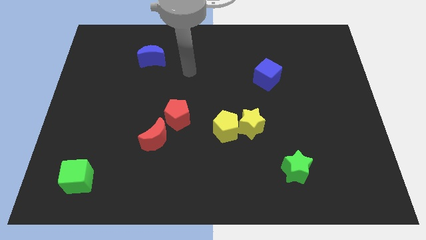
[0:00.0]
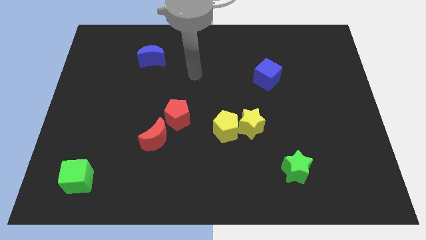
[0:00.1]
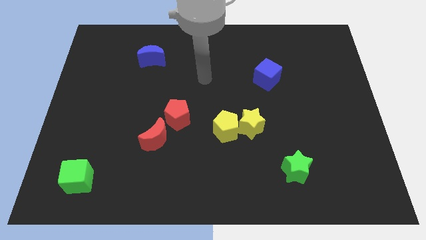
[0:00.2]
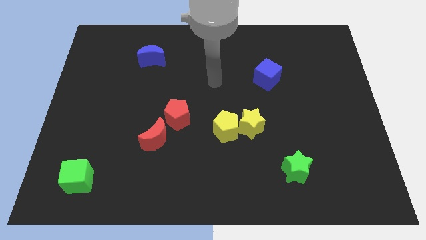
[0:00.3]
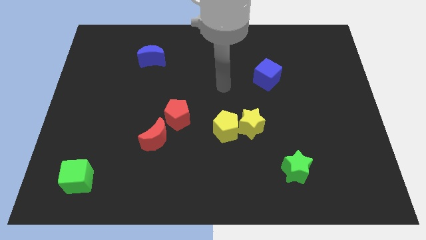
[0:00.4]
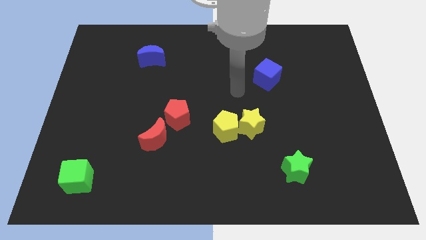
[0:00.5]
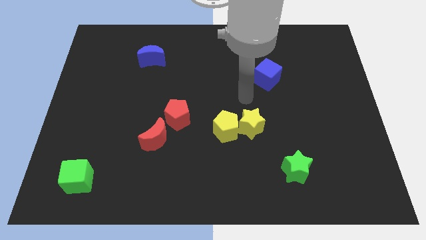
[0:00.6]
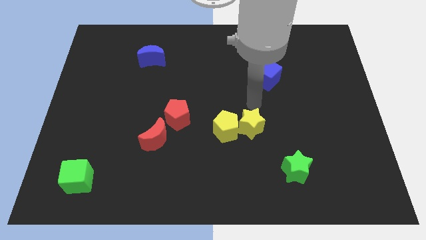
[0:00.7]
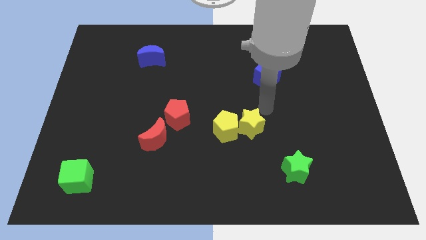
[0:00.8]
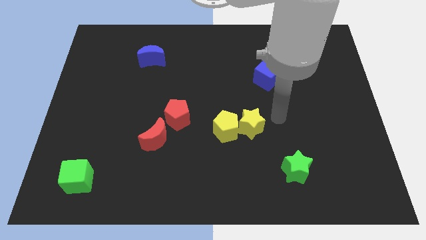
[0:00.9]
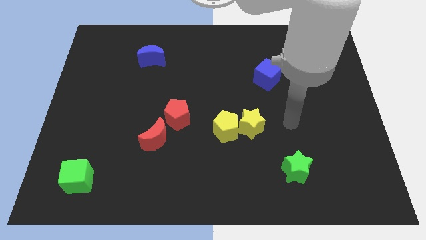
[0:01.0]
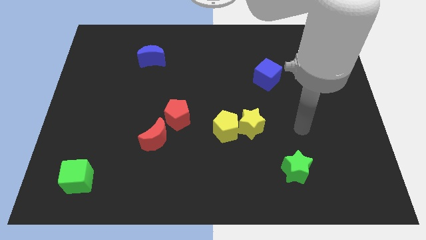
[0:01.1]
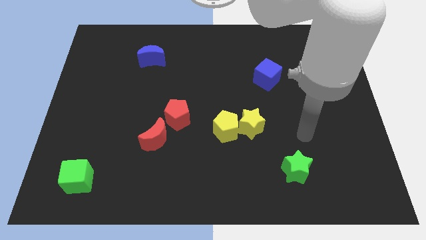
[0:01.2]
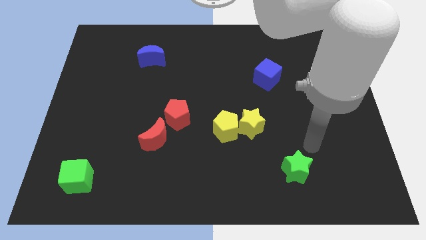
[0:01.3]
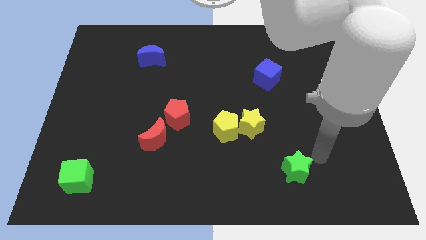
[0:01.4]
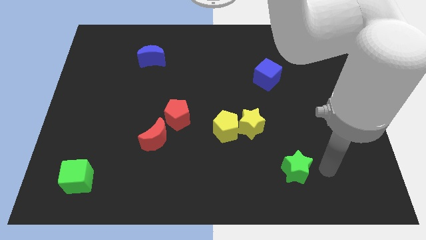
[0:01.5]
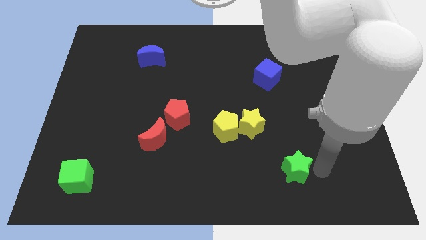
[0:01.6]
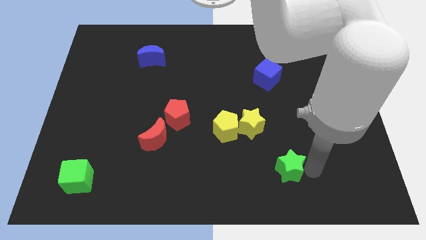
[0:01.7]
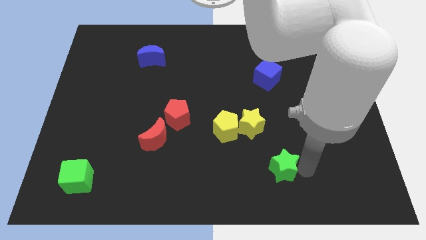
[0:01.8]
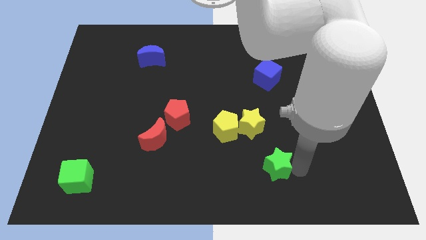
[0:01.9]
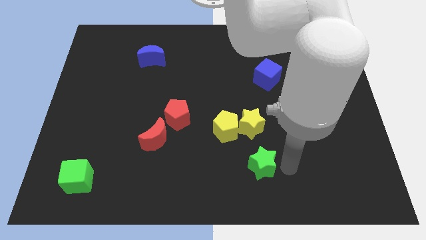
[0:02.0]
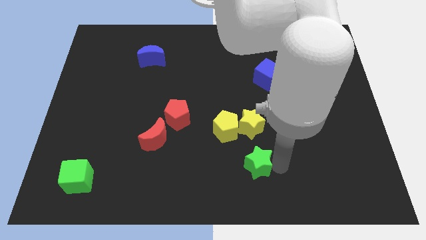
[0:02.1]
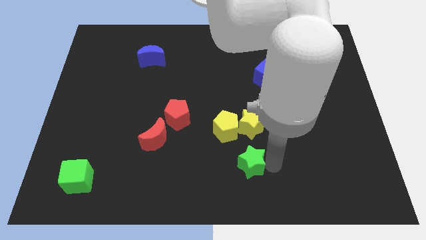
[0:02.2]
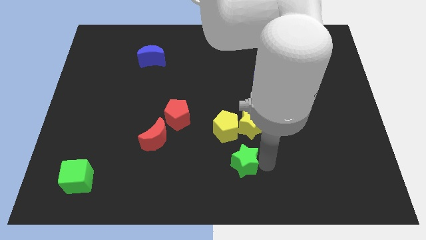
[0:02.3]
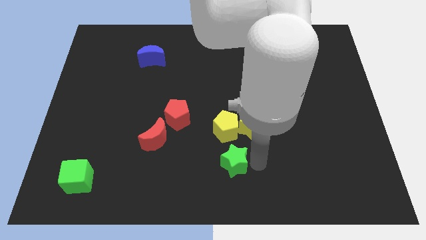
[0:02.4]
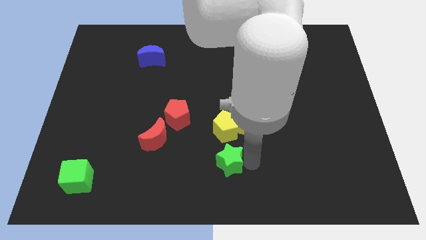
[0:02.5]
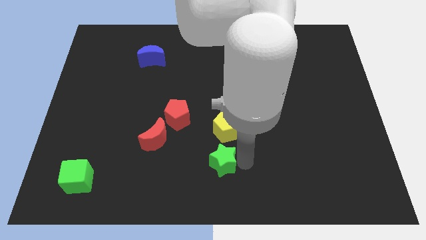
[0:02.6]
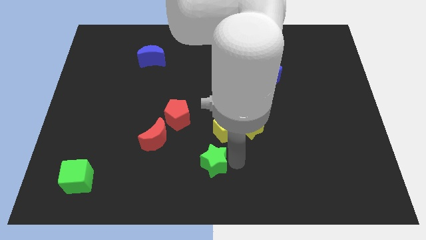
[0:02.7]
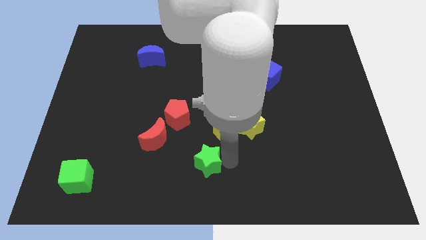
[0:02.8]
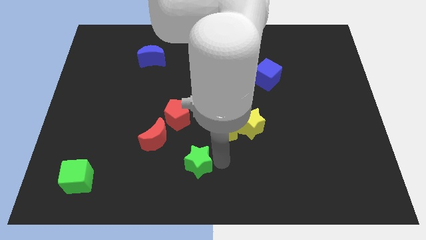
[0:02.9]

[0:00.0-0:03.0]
slide the green star left

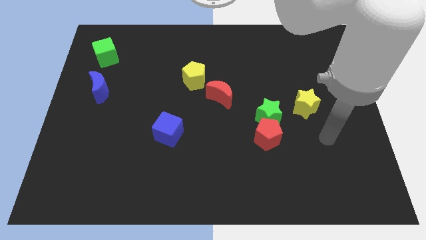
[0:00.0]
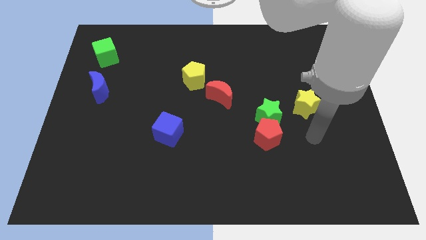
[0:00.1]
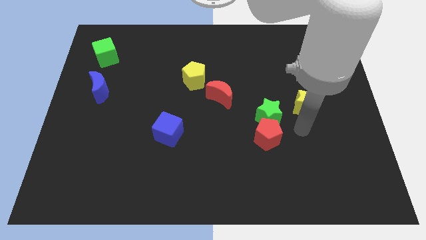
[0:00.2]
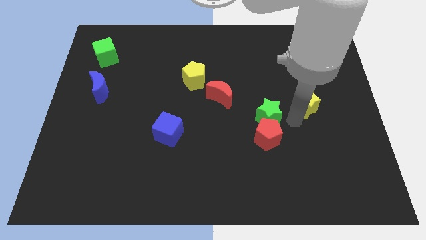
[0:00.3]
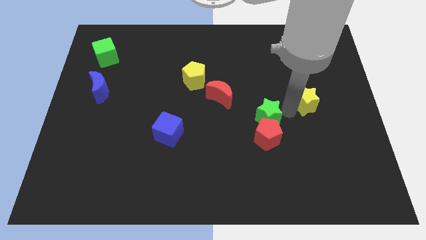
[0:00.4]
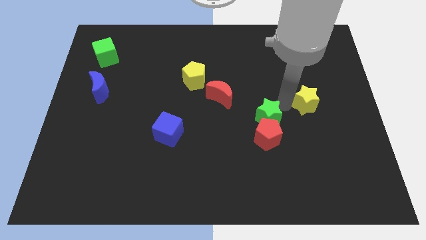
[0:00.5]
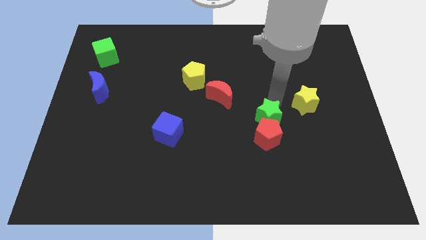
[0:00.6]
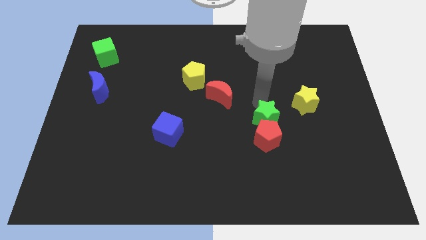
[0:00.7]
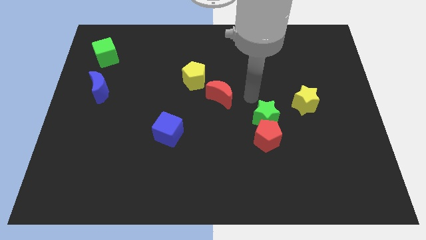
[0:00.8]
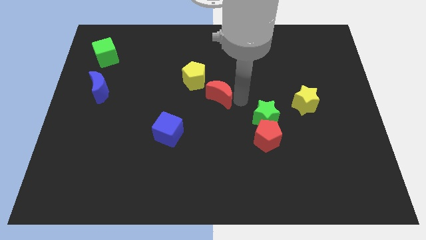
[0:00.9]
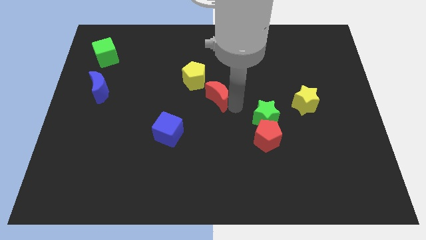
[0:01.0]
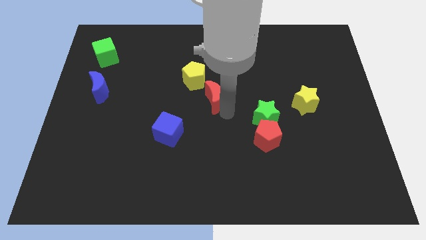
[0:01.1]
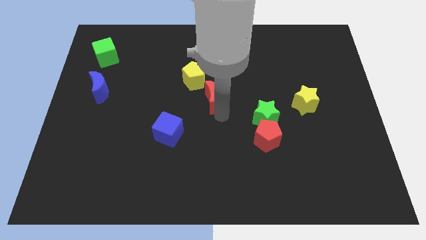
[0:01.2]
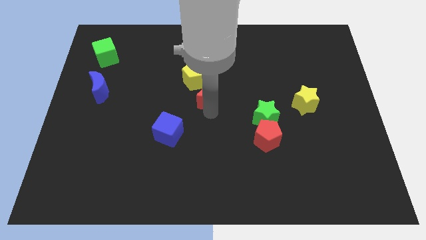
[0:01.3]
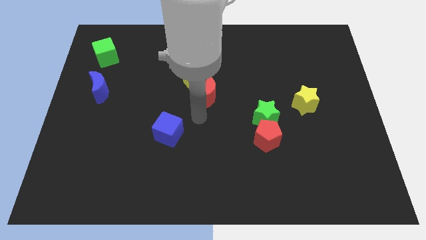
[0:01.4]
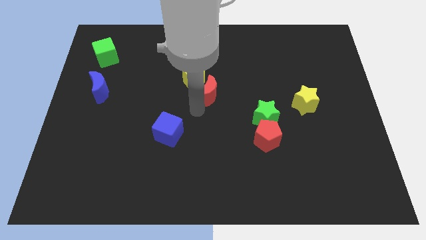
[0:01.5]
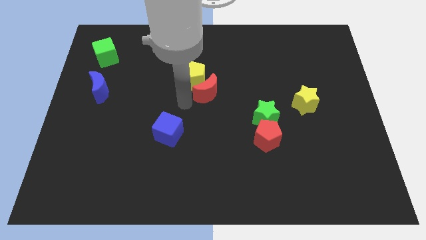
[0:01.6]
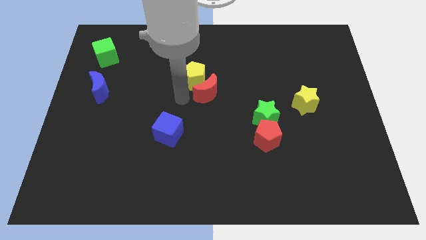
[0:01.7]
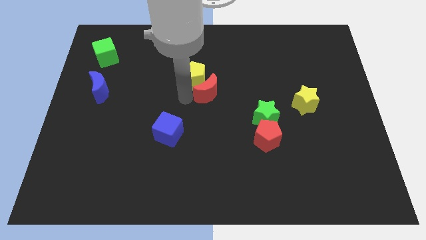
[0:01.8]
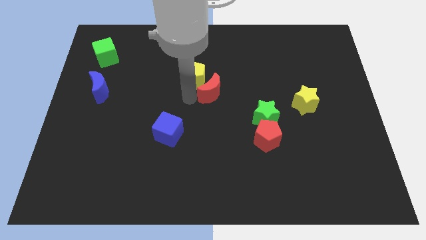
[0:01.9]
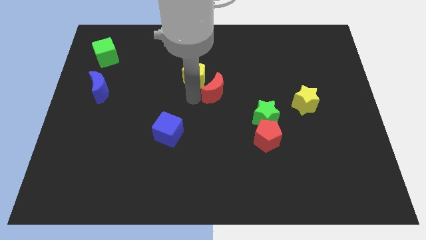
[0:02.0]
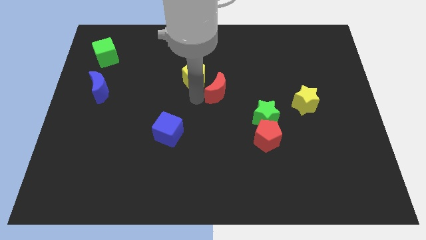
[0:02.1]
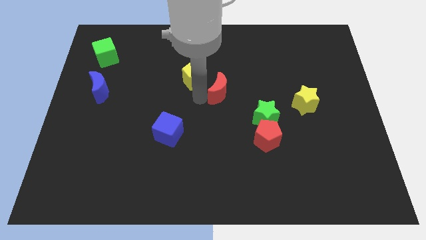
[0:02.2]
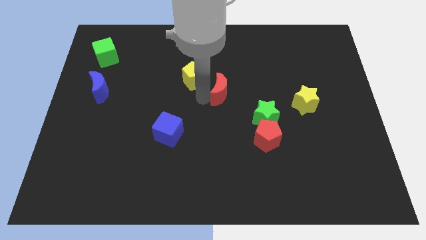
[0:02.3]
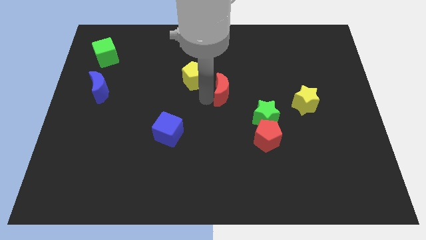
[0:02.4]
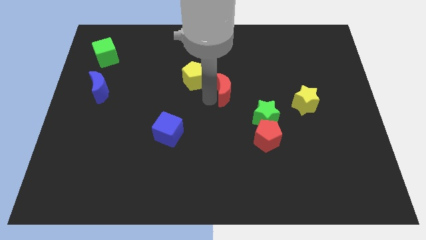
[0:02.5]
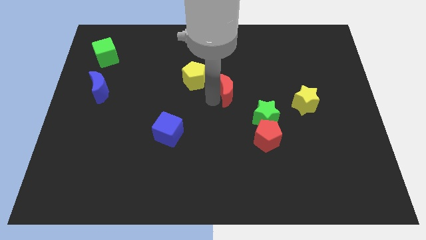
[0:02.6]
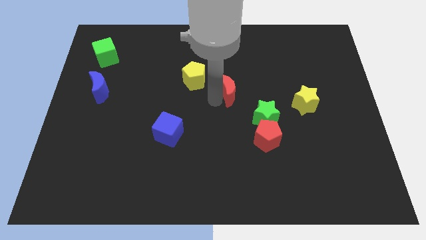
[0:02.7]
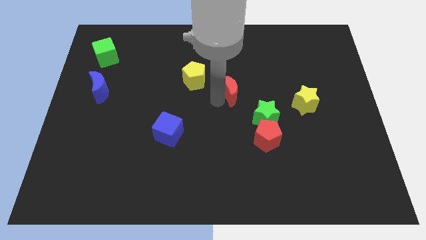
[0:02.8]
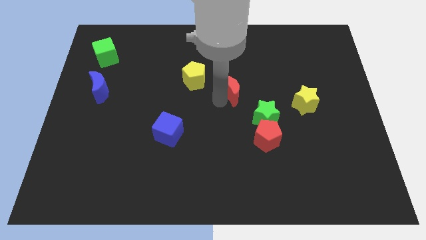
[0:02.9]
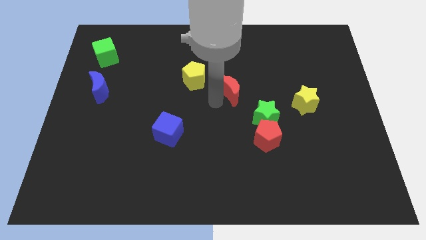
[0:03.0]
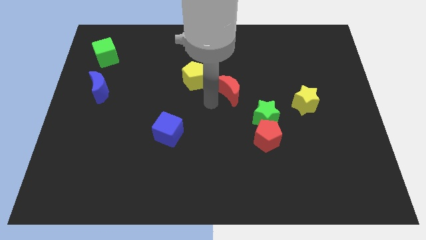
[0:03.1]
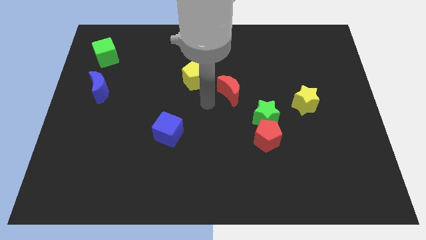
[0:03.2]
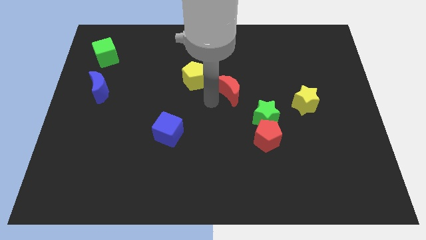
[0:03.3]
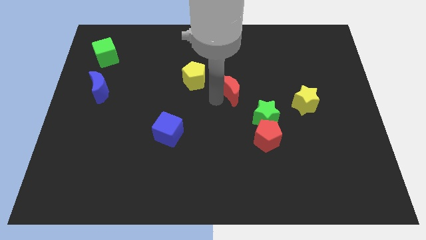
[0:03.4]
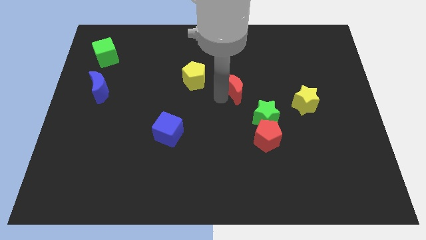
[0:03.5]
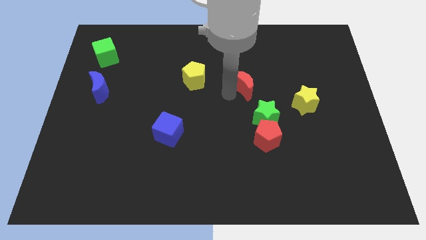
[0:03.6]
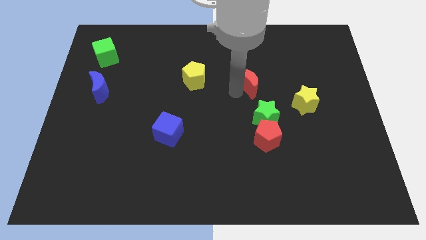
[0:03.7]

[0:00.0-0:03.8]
move the red moon diagonally up and right a little

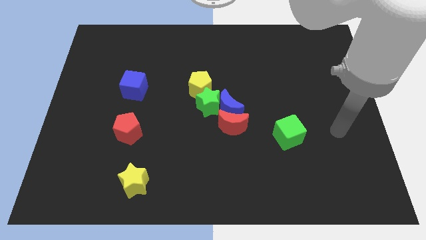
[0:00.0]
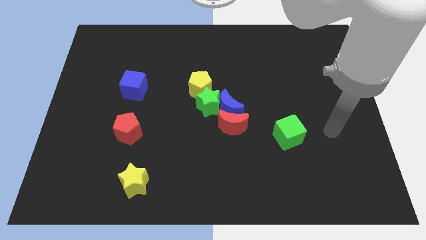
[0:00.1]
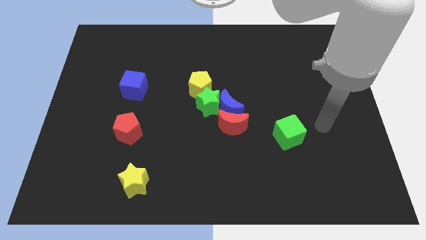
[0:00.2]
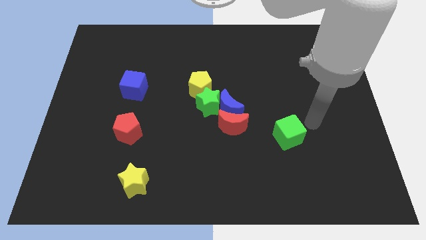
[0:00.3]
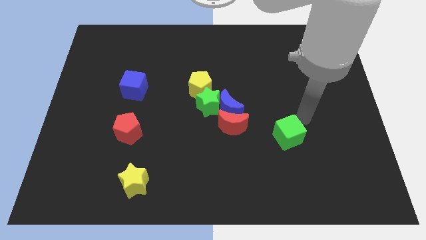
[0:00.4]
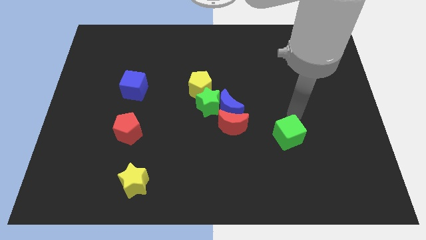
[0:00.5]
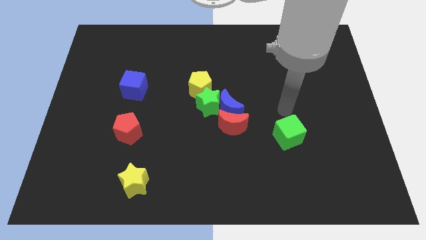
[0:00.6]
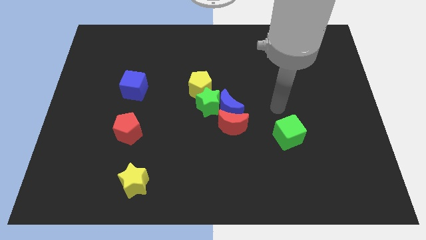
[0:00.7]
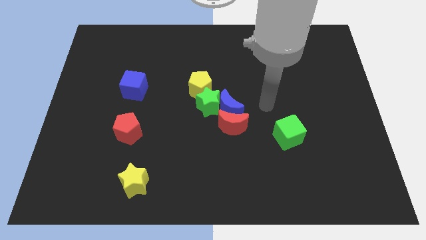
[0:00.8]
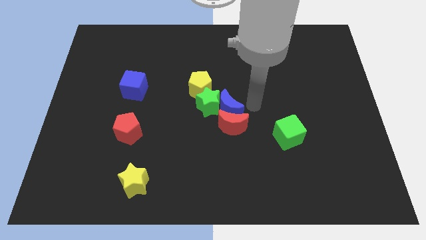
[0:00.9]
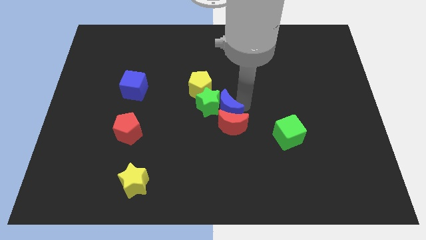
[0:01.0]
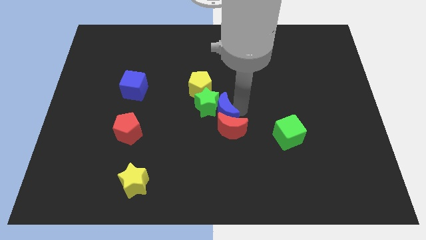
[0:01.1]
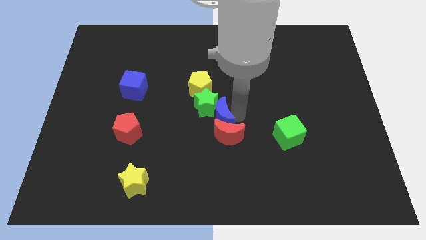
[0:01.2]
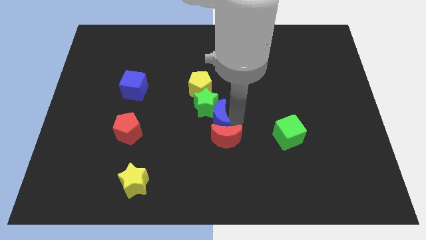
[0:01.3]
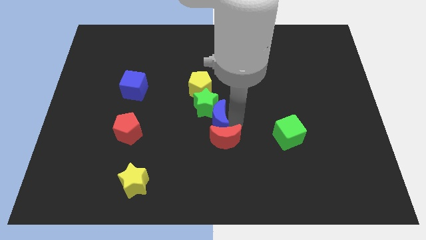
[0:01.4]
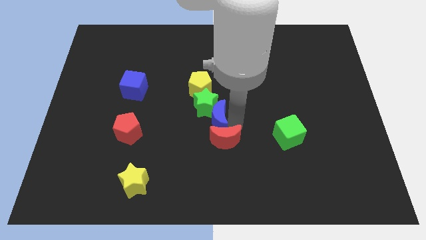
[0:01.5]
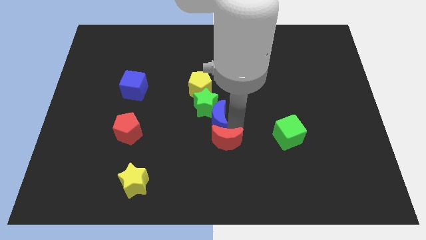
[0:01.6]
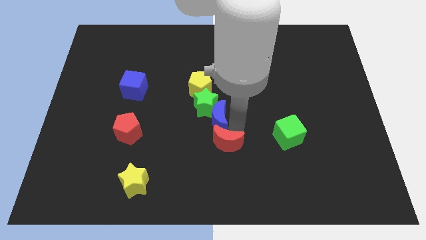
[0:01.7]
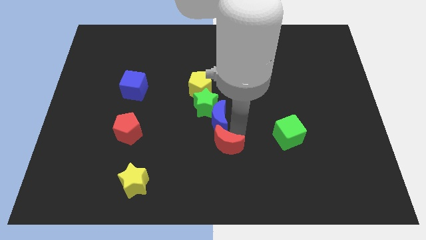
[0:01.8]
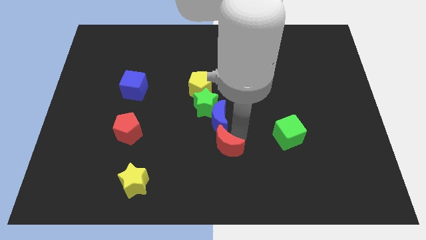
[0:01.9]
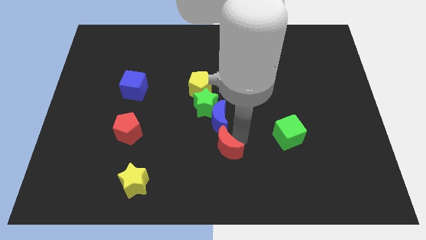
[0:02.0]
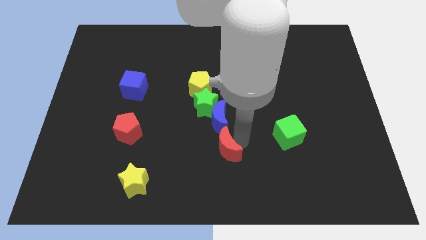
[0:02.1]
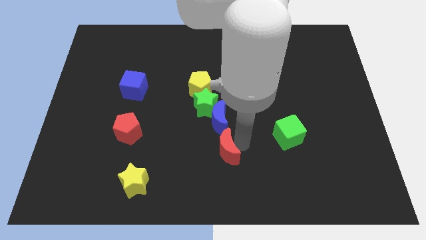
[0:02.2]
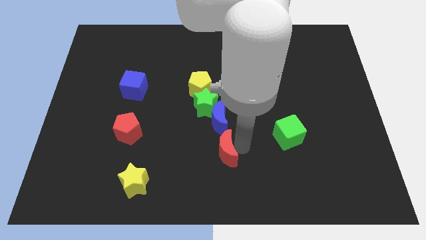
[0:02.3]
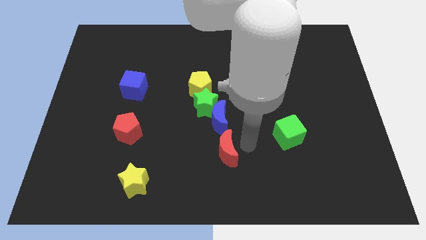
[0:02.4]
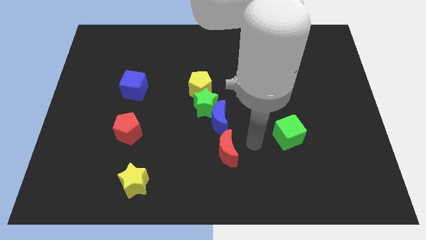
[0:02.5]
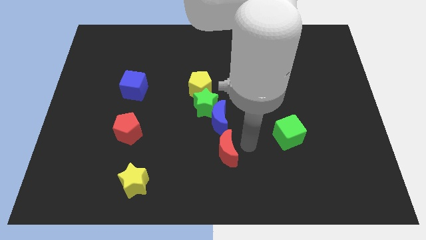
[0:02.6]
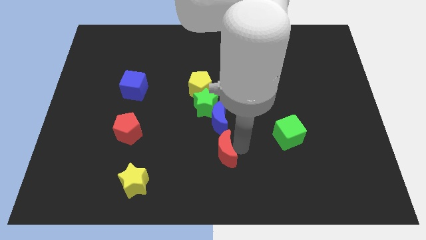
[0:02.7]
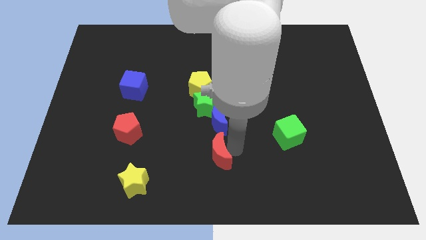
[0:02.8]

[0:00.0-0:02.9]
slightly move the red moon diagonally downwards and to the left
